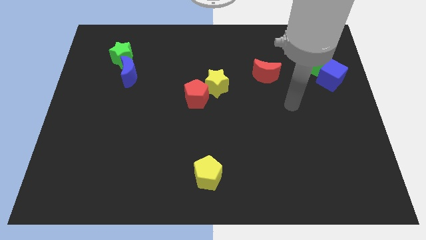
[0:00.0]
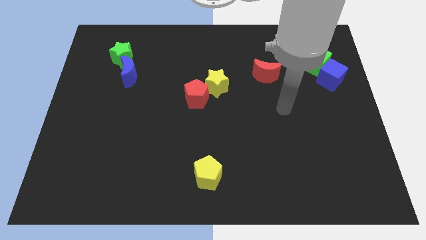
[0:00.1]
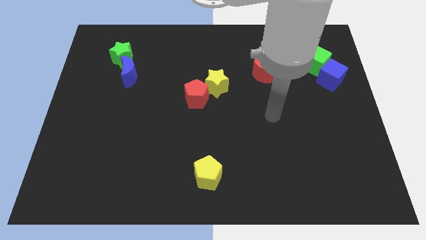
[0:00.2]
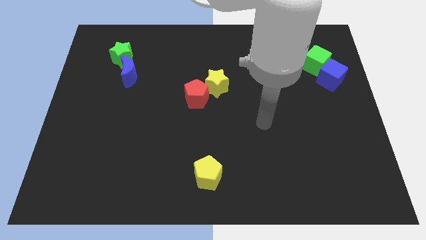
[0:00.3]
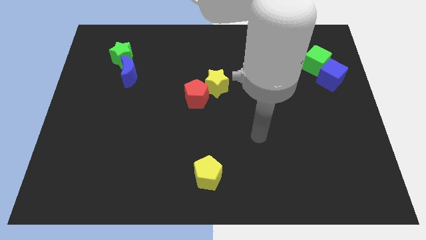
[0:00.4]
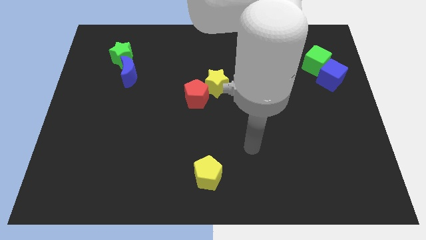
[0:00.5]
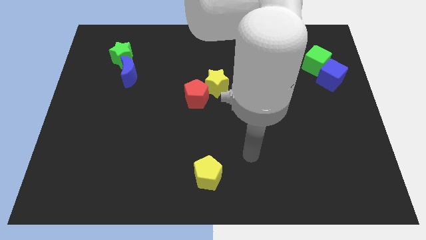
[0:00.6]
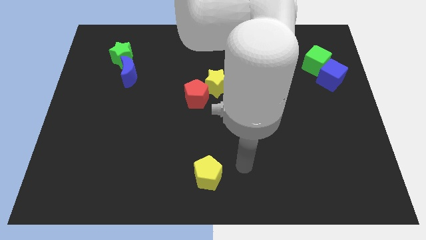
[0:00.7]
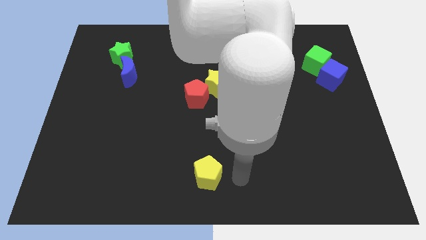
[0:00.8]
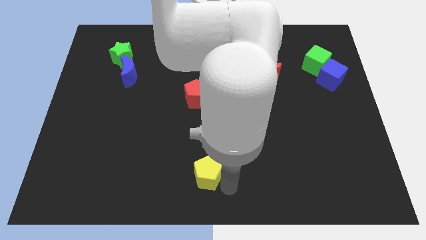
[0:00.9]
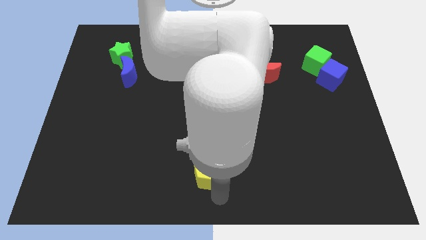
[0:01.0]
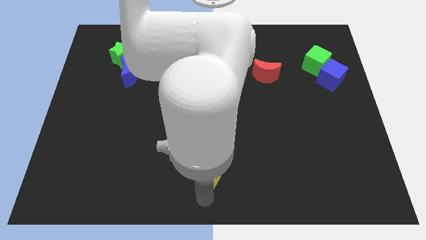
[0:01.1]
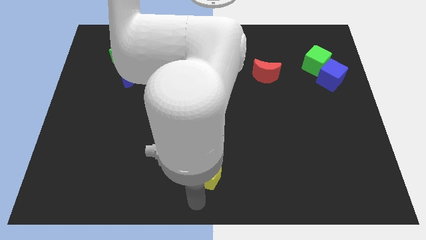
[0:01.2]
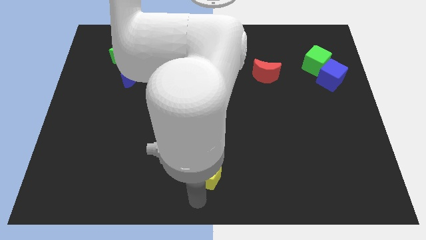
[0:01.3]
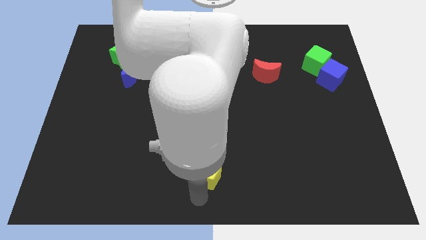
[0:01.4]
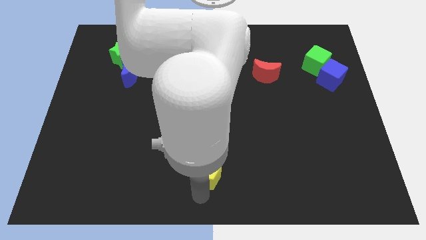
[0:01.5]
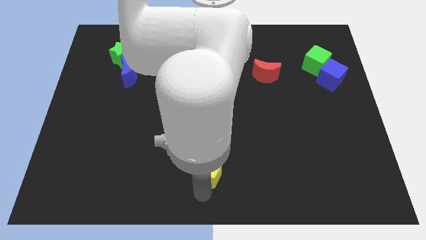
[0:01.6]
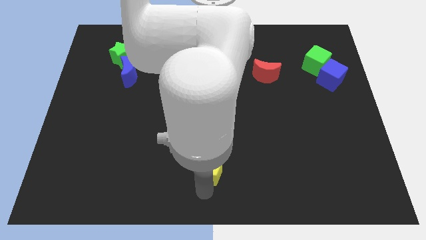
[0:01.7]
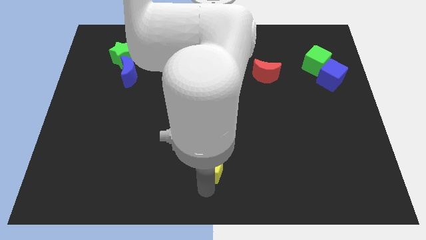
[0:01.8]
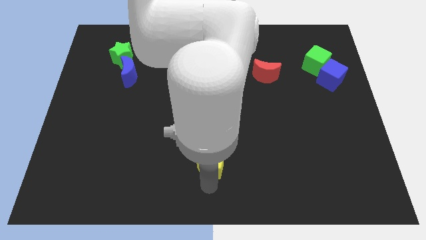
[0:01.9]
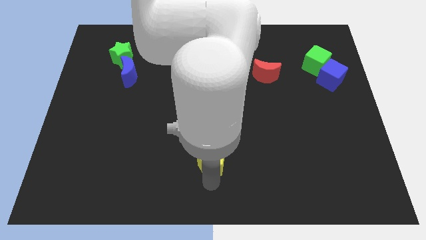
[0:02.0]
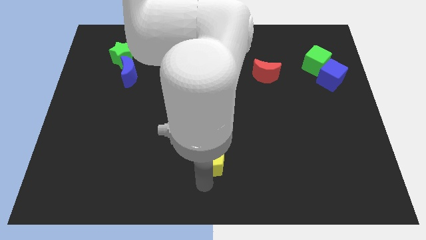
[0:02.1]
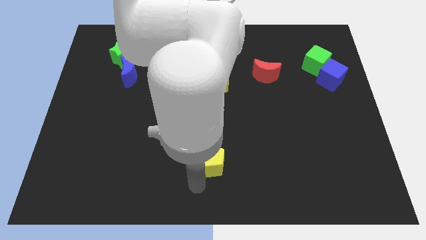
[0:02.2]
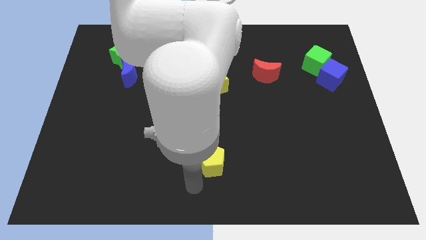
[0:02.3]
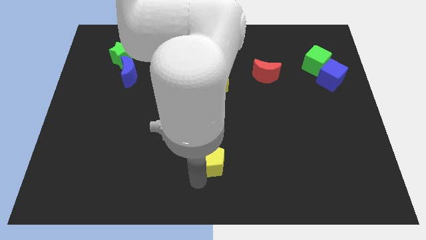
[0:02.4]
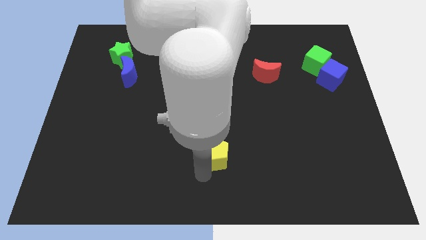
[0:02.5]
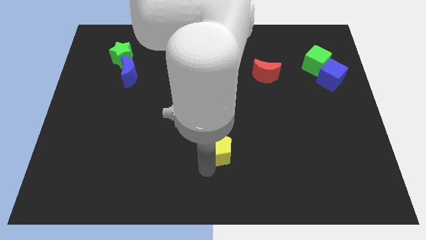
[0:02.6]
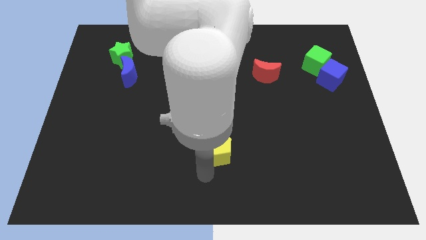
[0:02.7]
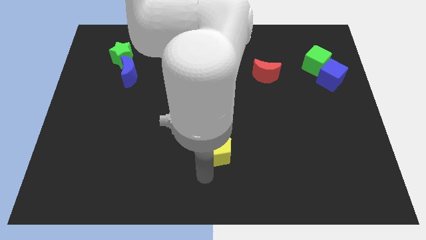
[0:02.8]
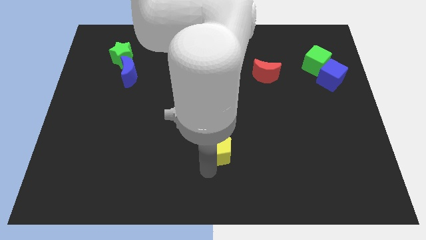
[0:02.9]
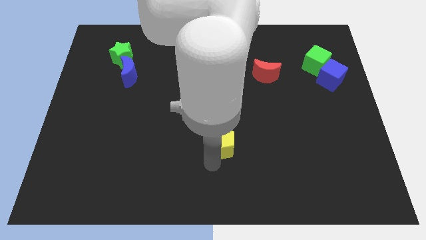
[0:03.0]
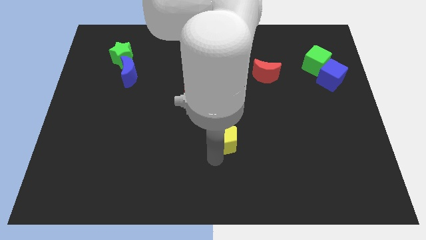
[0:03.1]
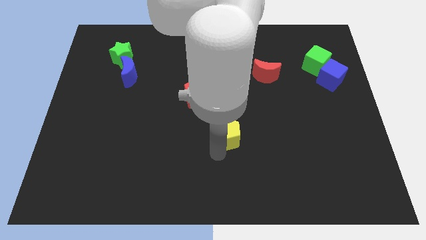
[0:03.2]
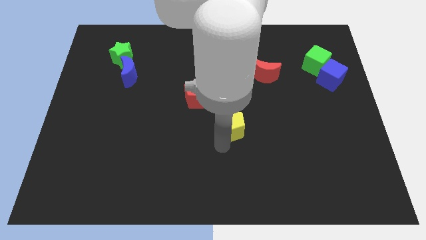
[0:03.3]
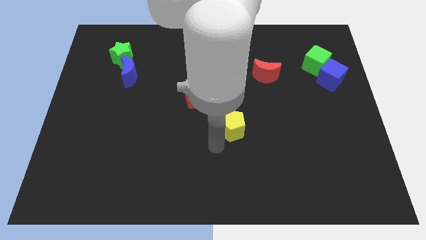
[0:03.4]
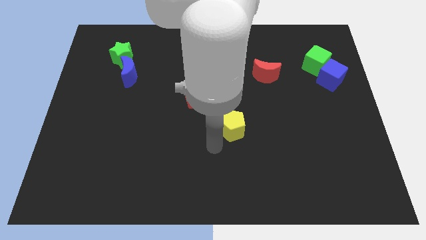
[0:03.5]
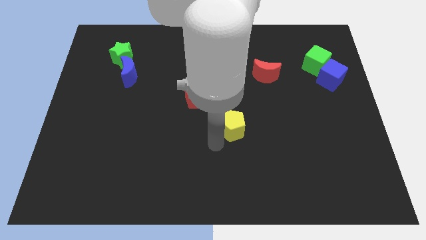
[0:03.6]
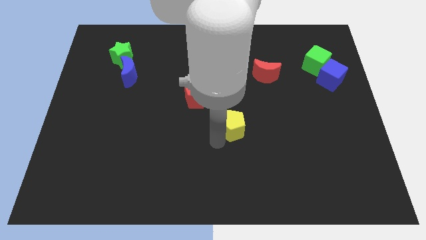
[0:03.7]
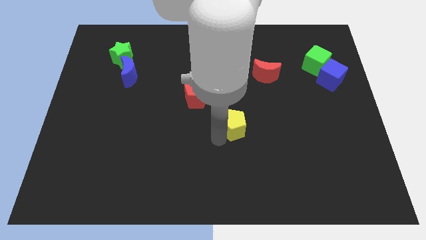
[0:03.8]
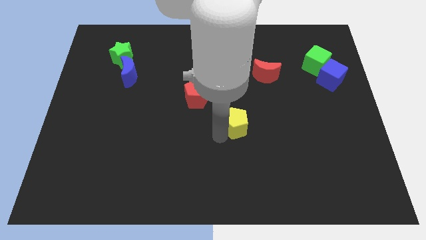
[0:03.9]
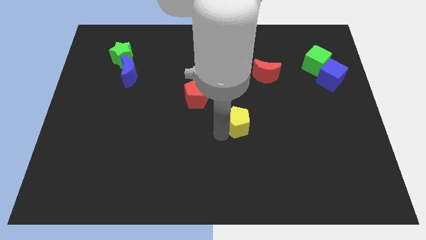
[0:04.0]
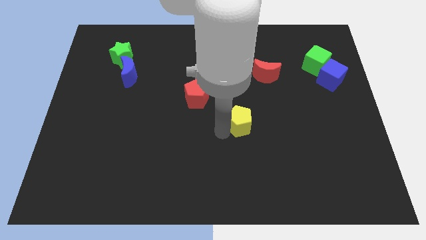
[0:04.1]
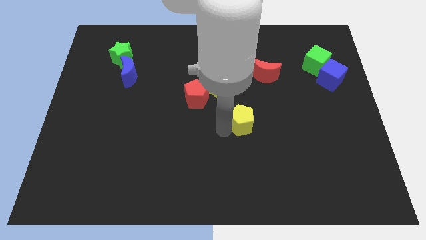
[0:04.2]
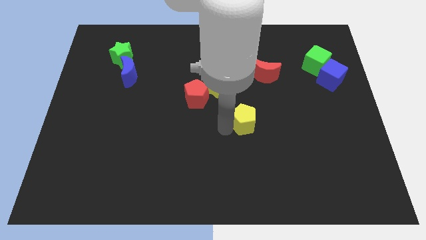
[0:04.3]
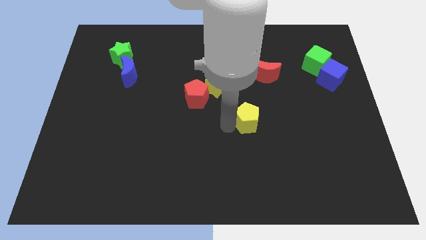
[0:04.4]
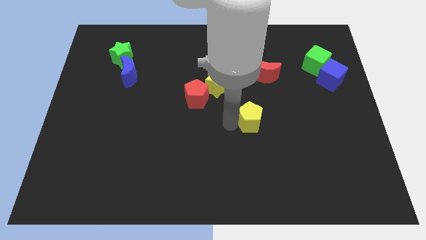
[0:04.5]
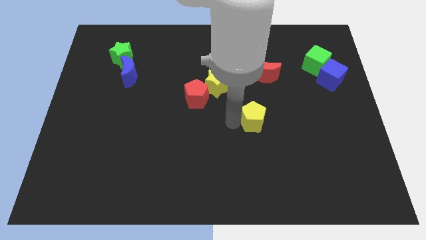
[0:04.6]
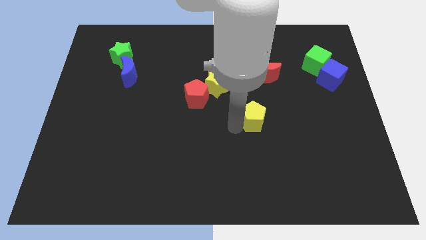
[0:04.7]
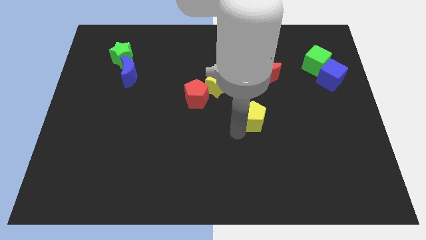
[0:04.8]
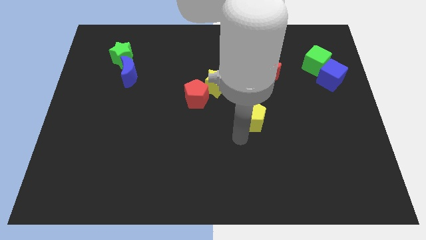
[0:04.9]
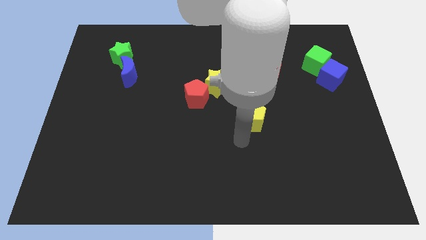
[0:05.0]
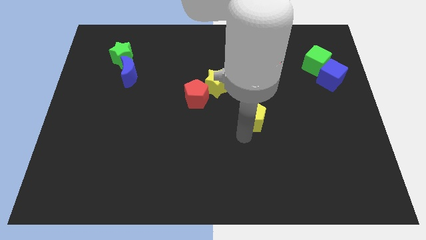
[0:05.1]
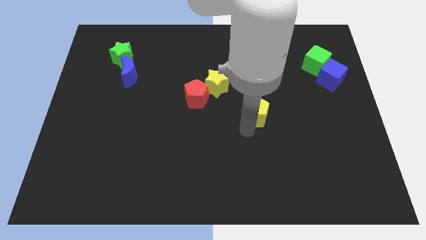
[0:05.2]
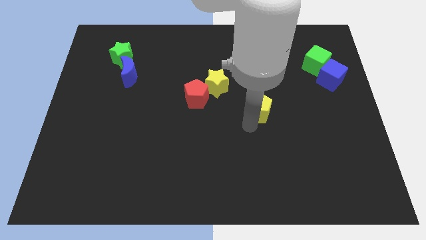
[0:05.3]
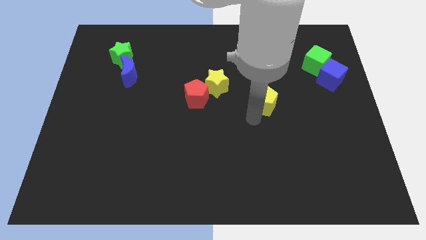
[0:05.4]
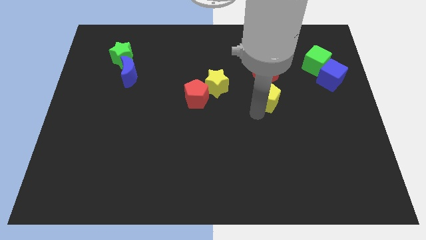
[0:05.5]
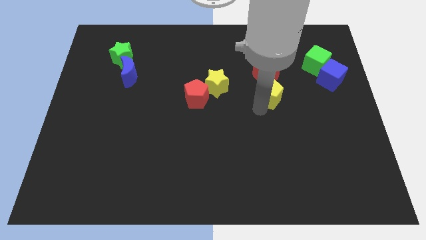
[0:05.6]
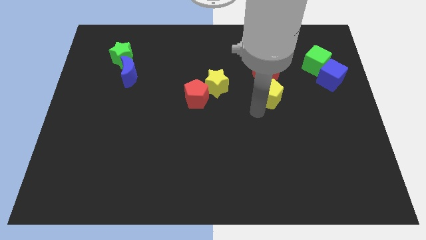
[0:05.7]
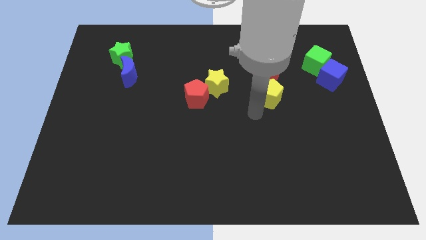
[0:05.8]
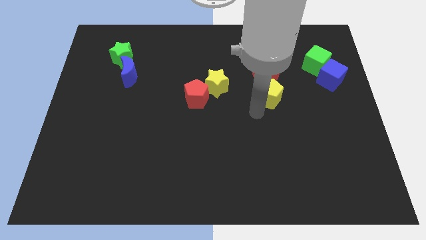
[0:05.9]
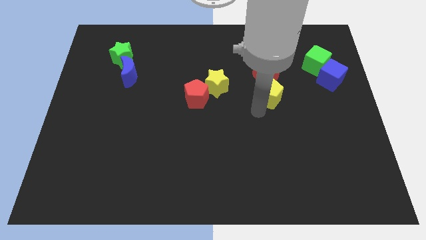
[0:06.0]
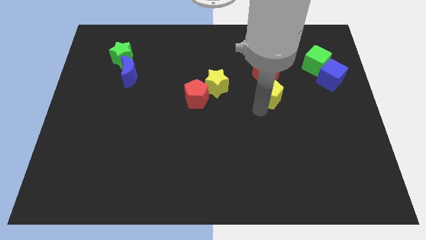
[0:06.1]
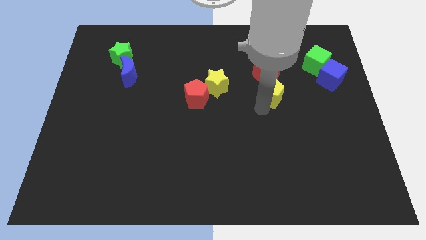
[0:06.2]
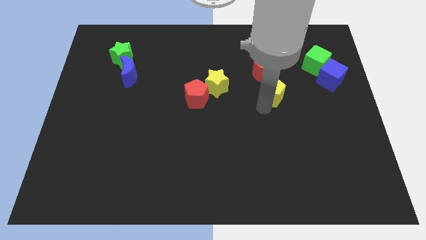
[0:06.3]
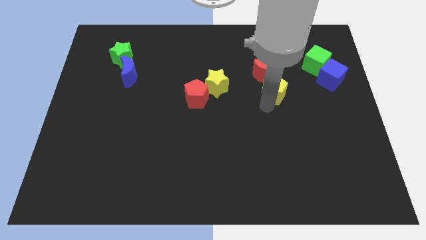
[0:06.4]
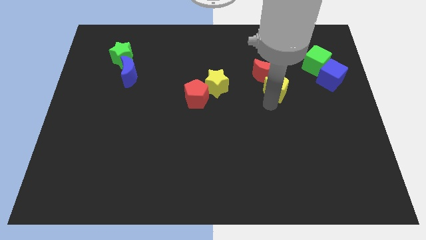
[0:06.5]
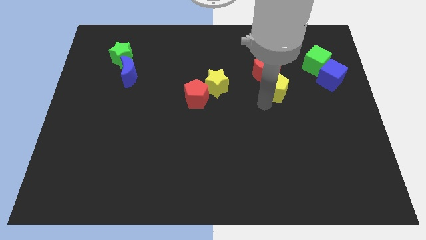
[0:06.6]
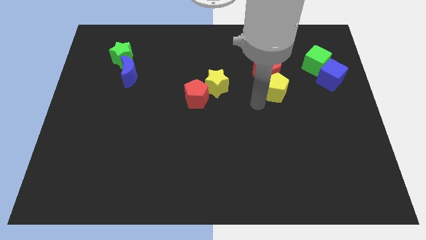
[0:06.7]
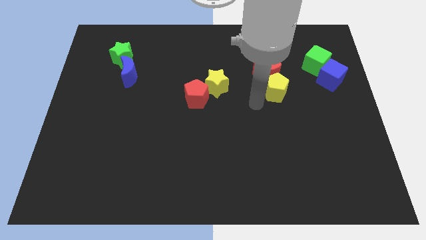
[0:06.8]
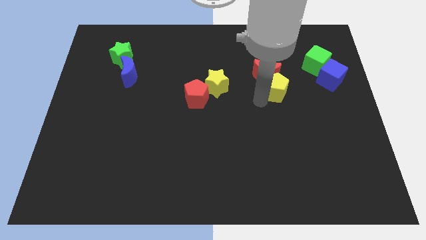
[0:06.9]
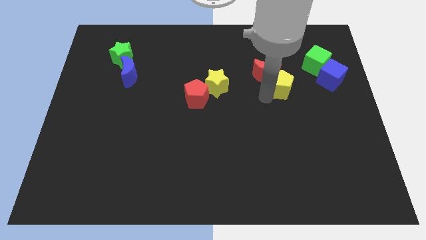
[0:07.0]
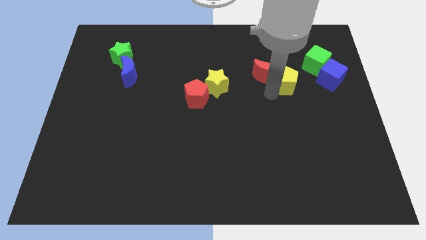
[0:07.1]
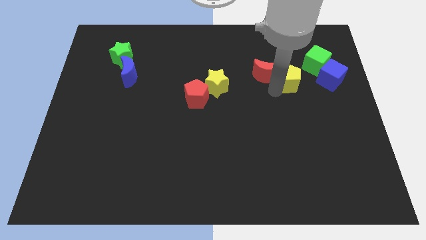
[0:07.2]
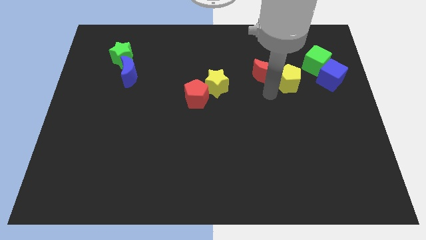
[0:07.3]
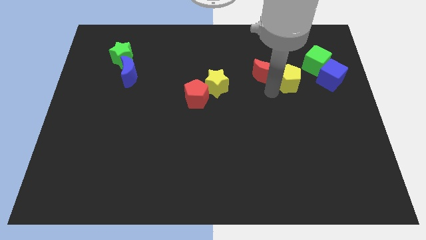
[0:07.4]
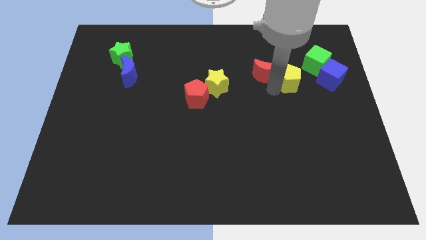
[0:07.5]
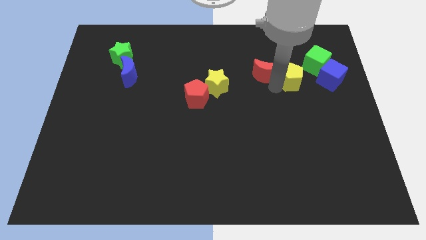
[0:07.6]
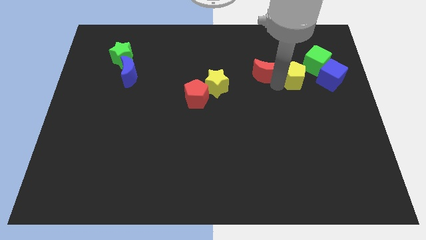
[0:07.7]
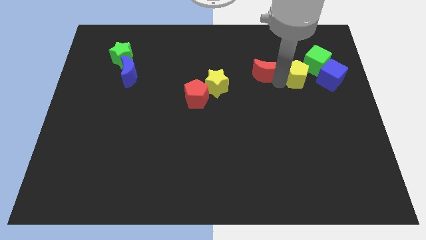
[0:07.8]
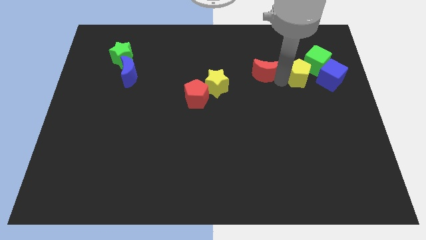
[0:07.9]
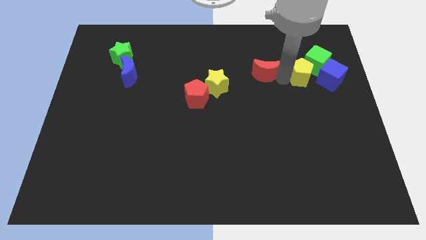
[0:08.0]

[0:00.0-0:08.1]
slide the yellow pentagon next to the green cube
